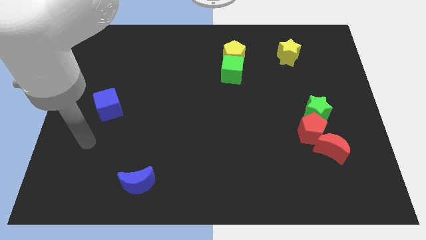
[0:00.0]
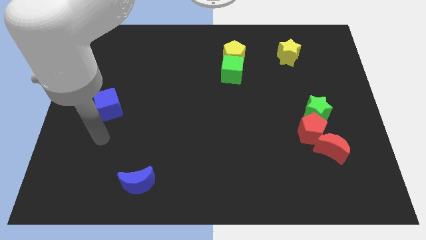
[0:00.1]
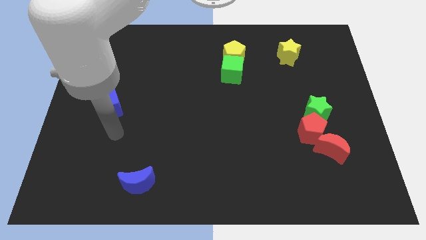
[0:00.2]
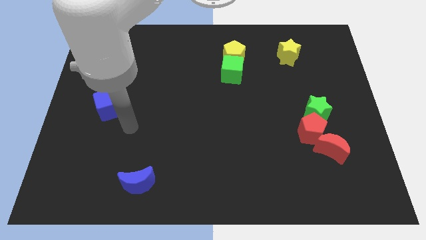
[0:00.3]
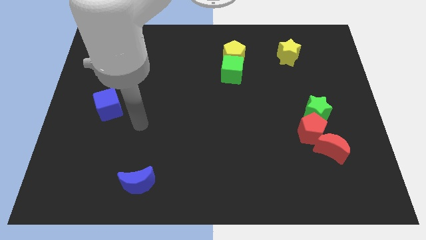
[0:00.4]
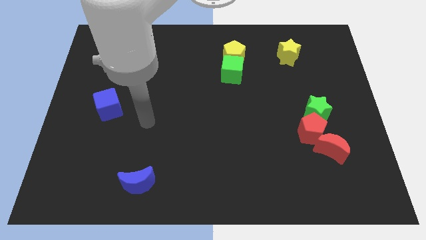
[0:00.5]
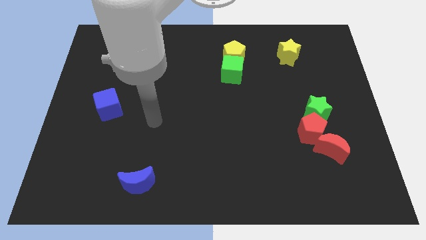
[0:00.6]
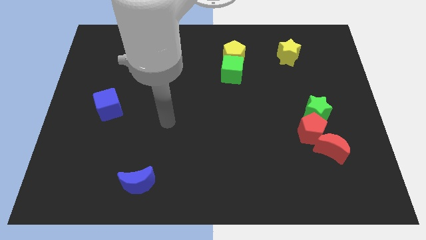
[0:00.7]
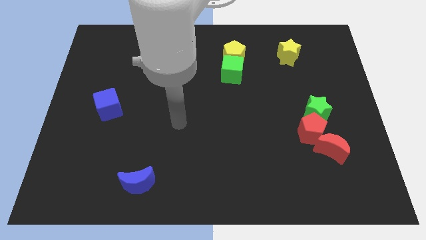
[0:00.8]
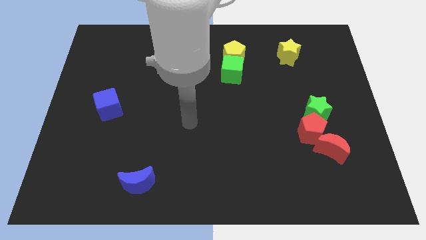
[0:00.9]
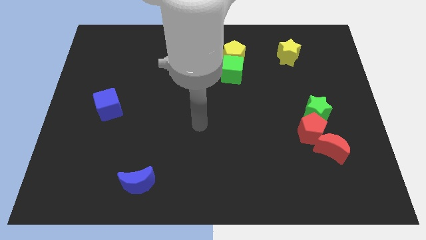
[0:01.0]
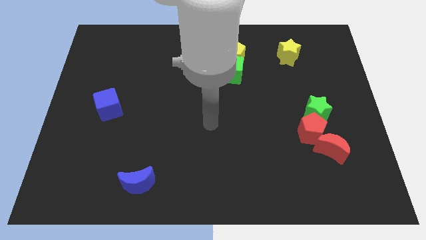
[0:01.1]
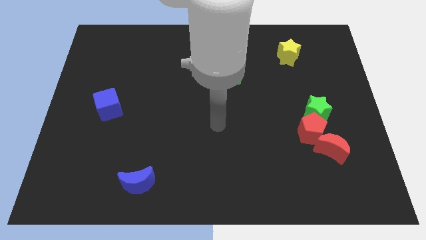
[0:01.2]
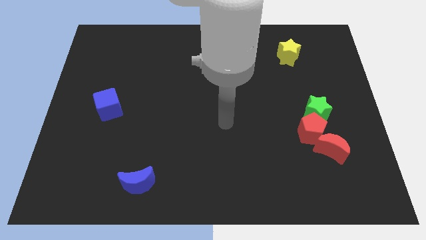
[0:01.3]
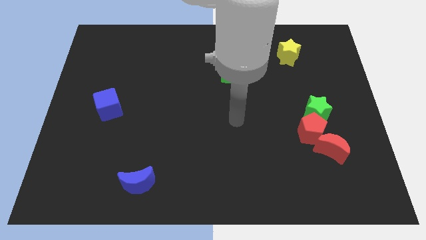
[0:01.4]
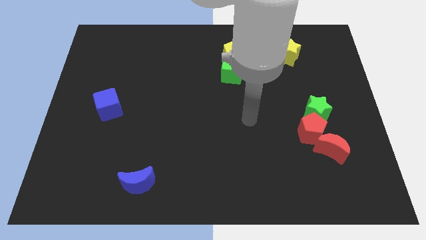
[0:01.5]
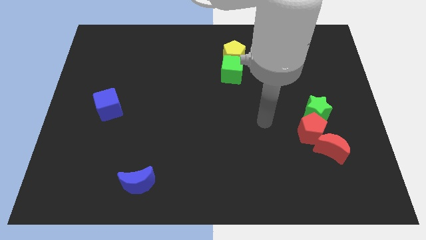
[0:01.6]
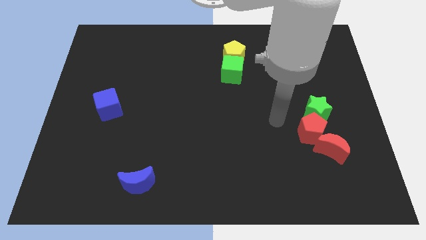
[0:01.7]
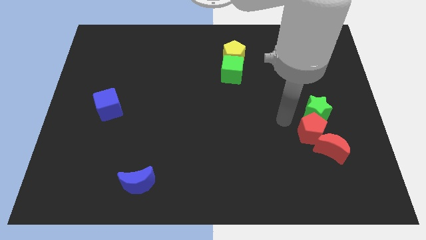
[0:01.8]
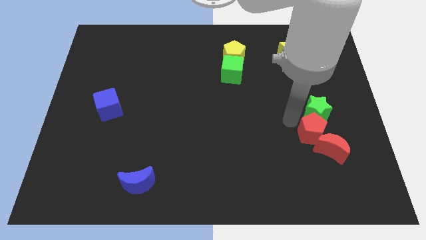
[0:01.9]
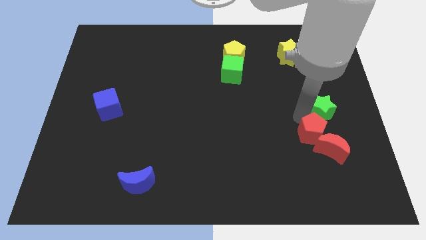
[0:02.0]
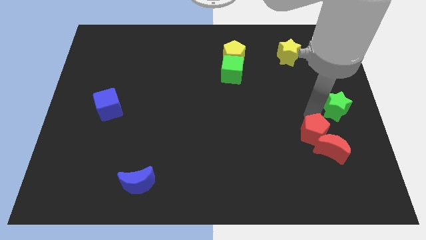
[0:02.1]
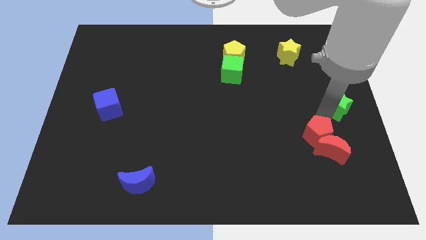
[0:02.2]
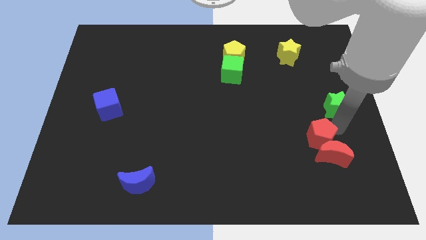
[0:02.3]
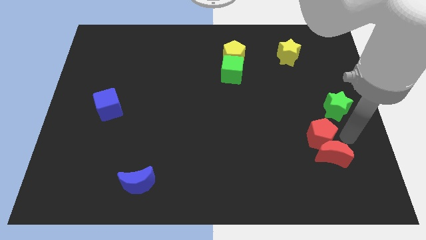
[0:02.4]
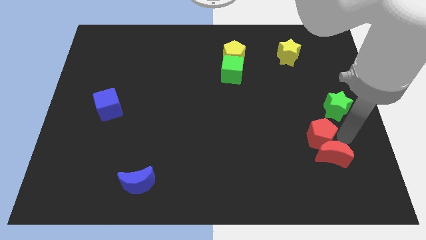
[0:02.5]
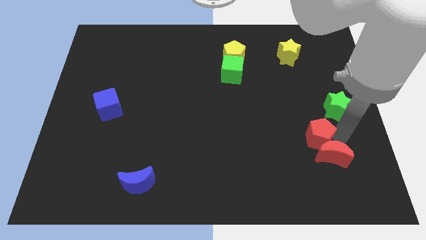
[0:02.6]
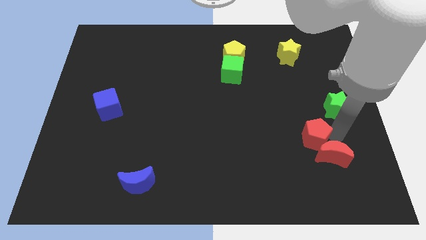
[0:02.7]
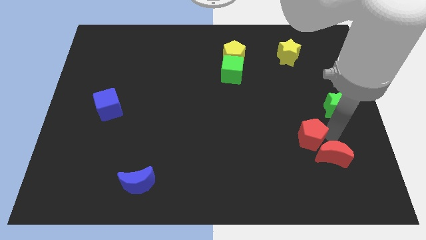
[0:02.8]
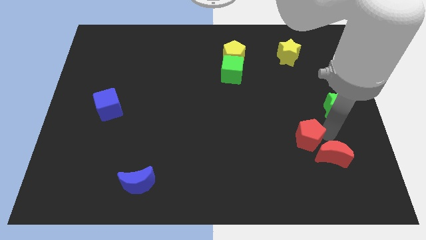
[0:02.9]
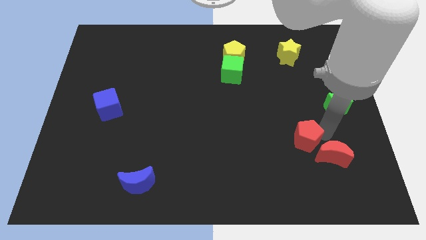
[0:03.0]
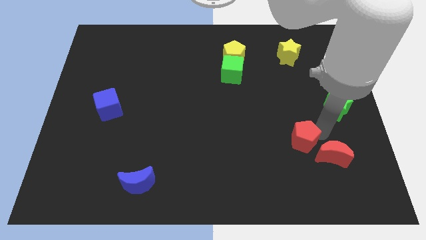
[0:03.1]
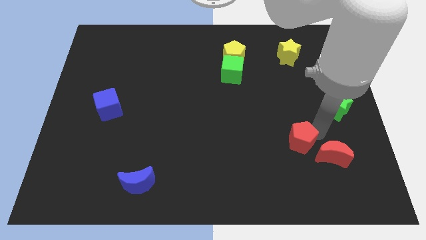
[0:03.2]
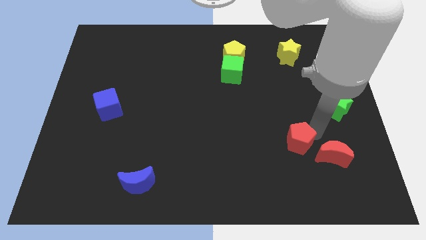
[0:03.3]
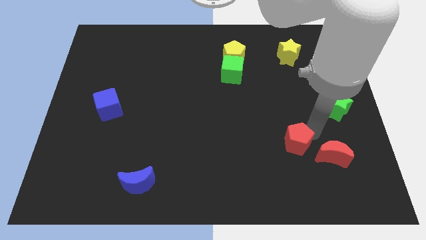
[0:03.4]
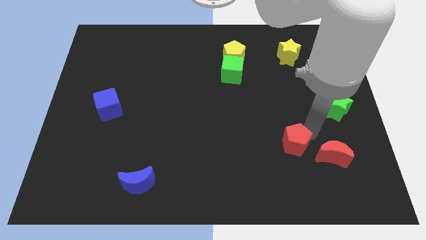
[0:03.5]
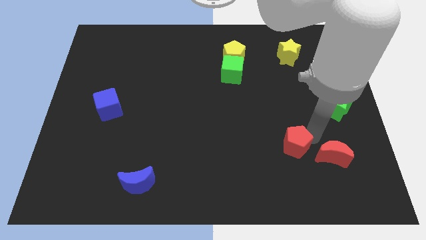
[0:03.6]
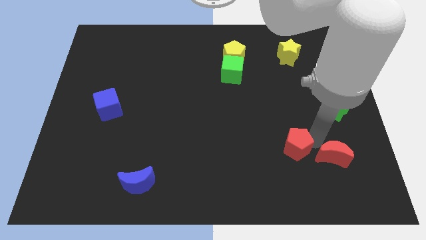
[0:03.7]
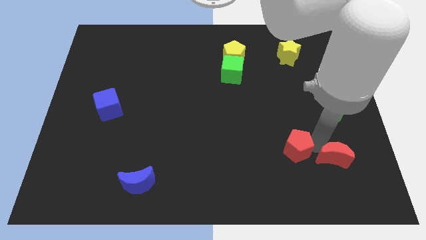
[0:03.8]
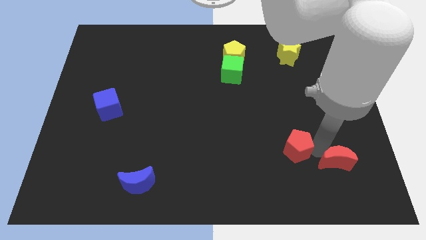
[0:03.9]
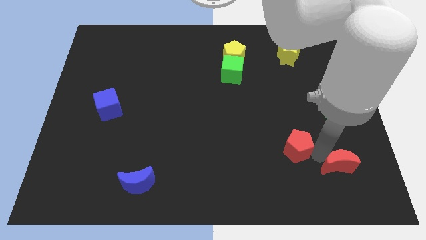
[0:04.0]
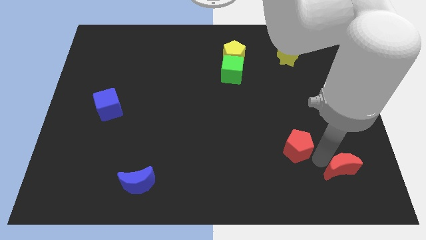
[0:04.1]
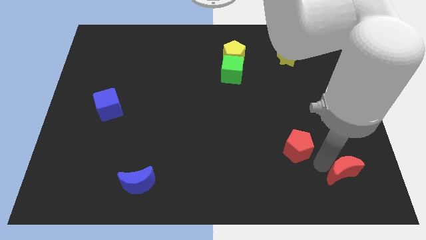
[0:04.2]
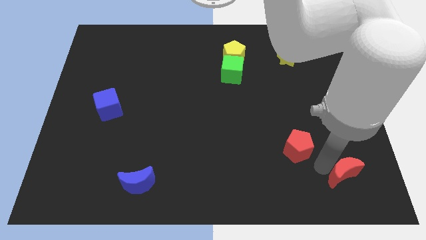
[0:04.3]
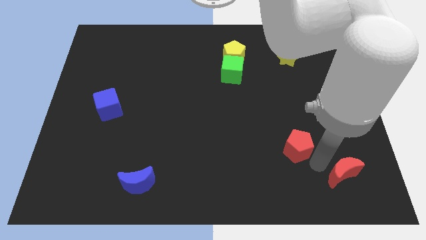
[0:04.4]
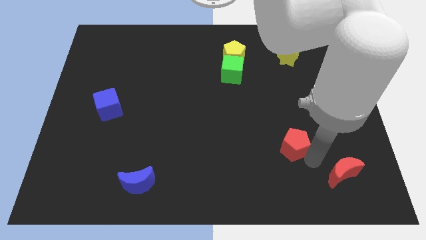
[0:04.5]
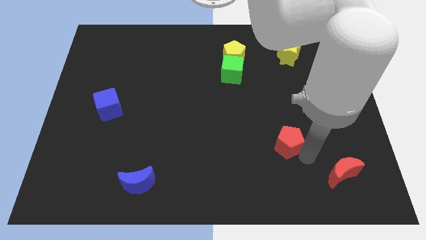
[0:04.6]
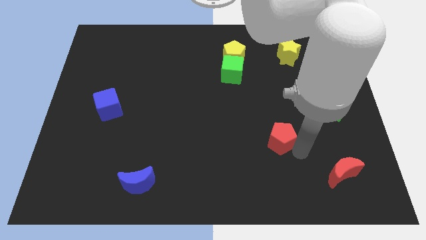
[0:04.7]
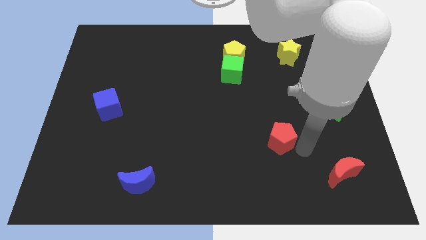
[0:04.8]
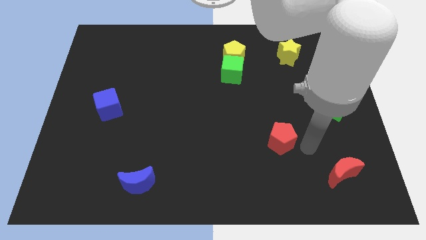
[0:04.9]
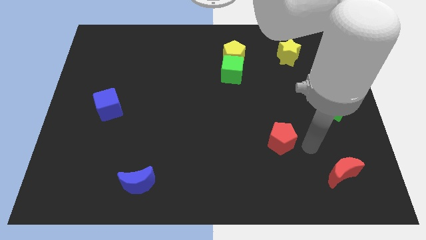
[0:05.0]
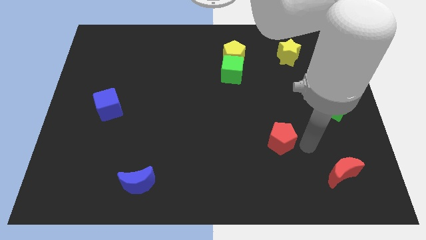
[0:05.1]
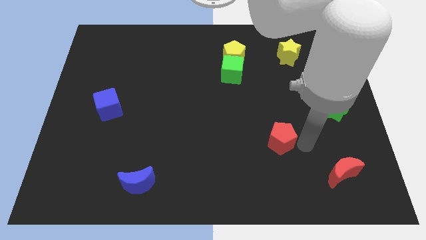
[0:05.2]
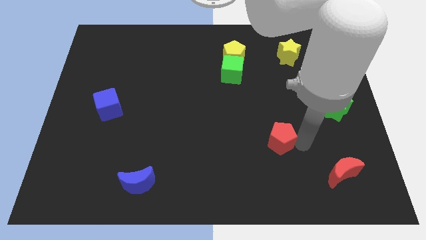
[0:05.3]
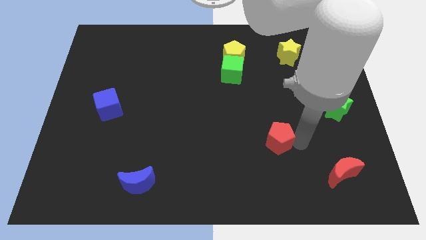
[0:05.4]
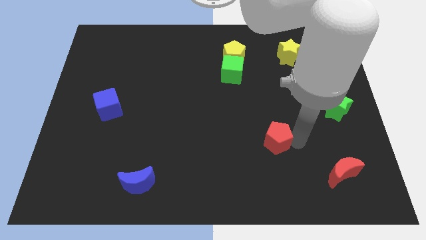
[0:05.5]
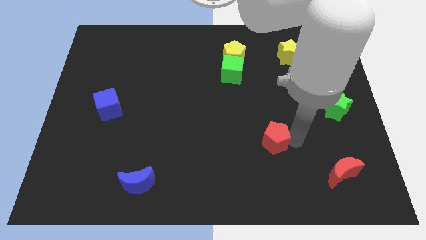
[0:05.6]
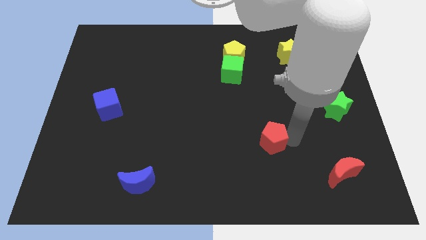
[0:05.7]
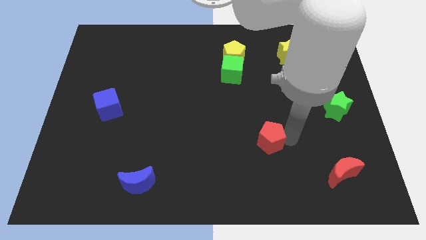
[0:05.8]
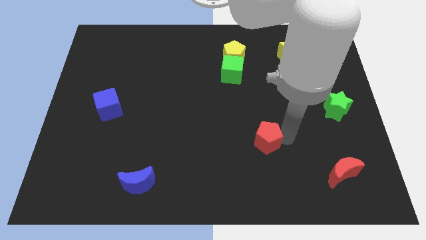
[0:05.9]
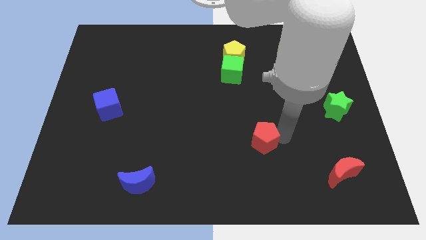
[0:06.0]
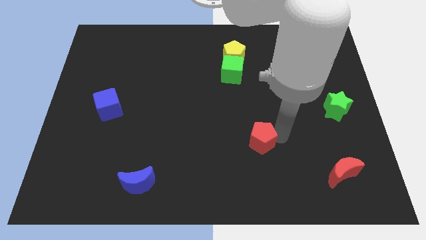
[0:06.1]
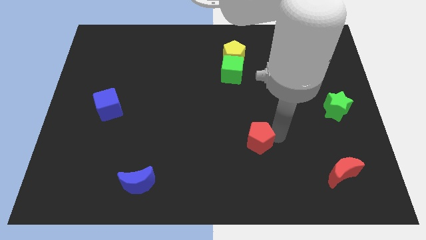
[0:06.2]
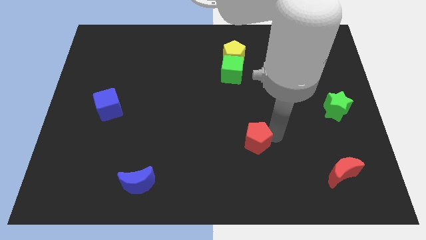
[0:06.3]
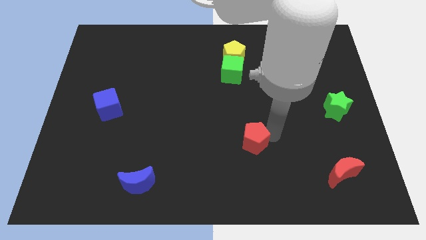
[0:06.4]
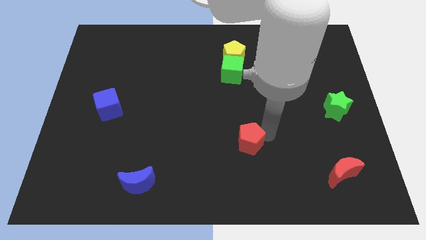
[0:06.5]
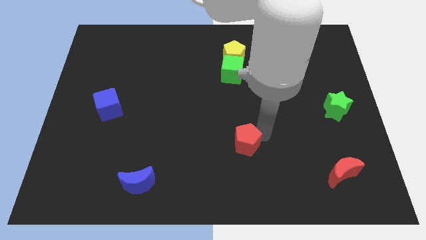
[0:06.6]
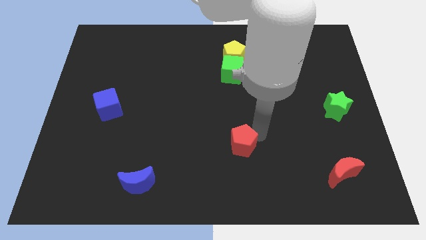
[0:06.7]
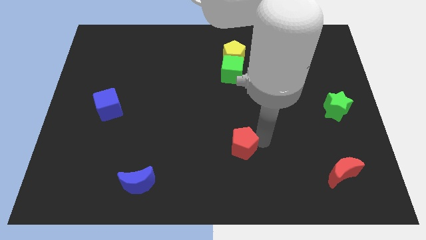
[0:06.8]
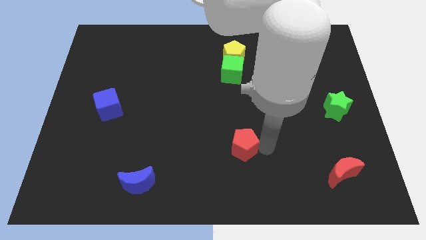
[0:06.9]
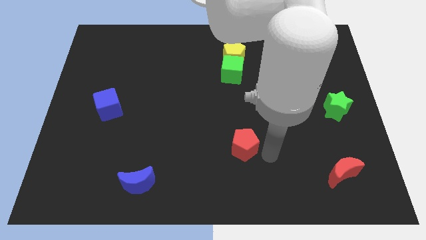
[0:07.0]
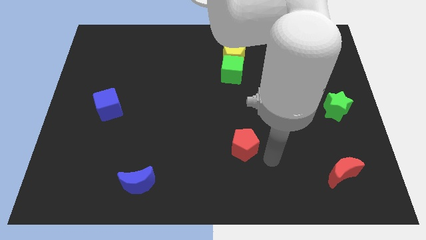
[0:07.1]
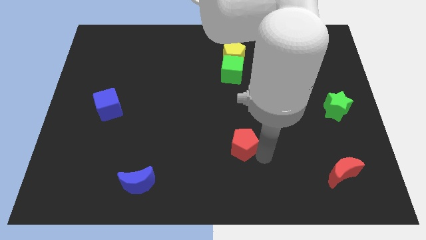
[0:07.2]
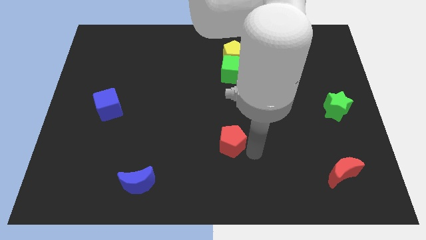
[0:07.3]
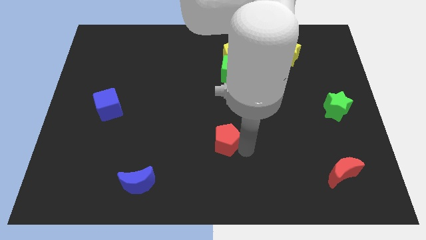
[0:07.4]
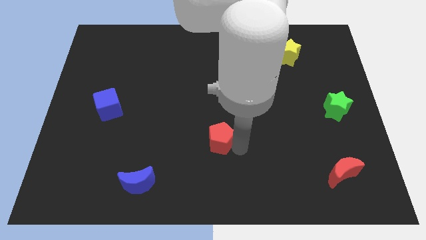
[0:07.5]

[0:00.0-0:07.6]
push the red pentagon left
